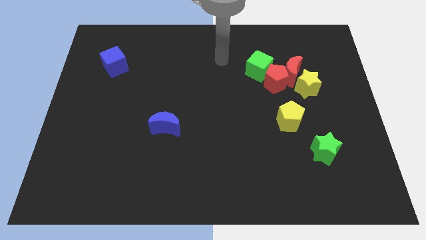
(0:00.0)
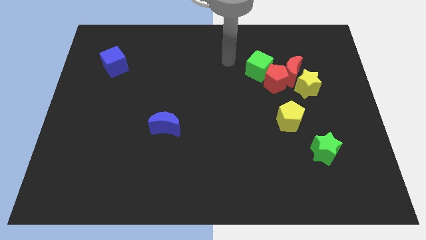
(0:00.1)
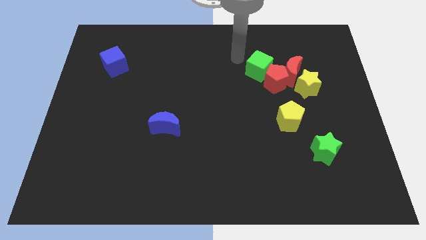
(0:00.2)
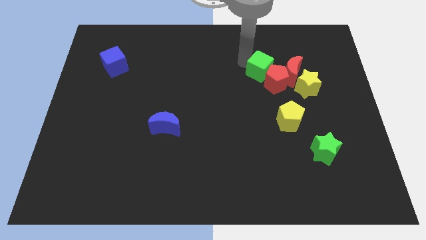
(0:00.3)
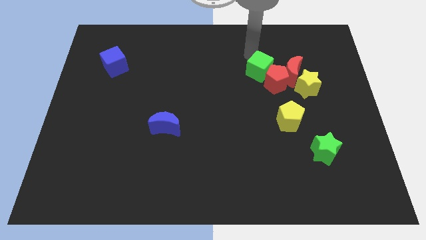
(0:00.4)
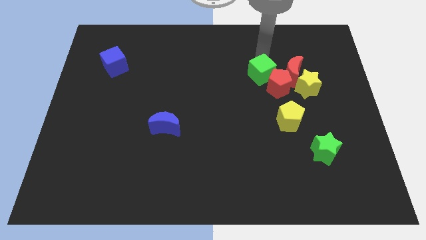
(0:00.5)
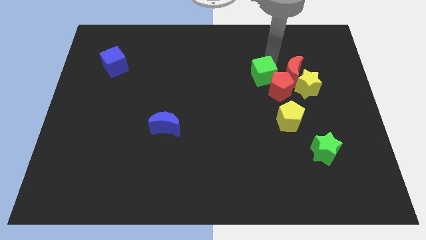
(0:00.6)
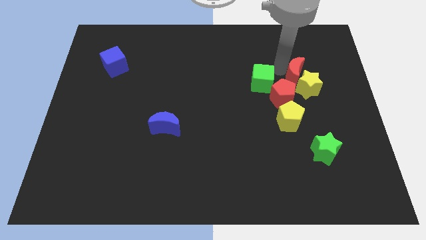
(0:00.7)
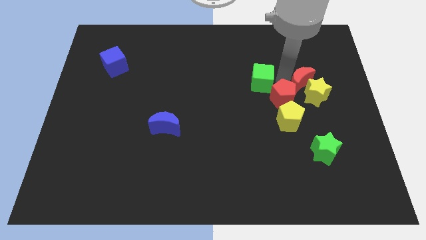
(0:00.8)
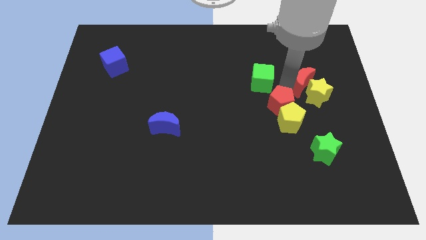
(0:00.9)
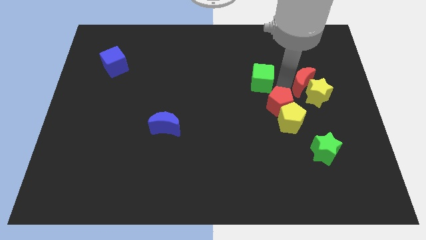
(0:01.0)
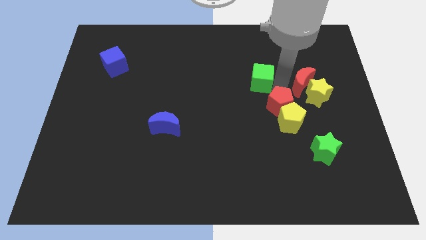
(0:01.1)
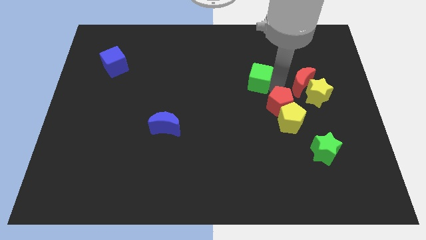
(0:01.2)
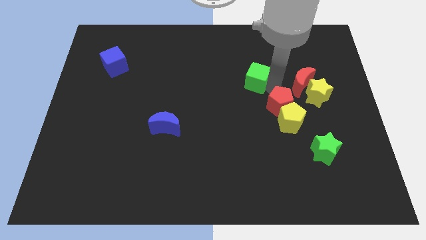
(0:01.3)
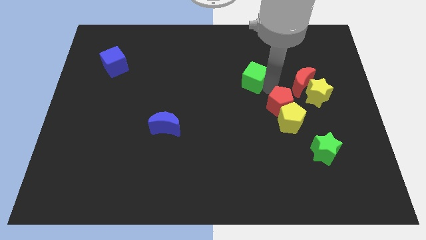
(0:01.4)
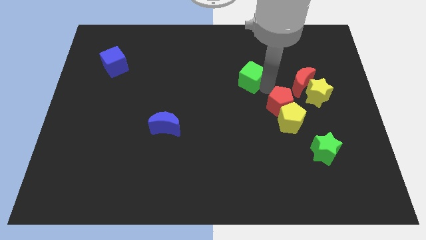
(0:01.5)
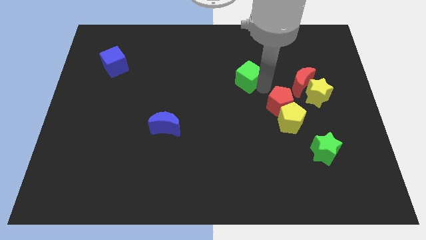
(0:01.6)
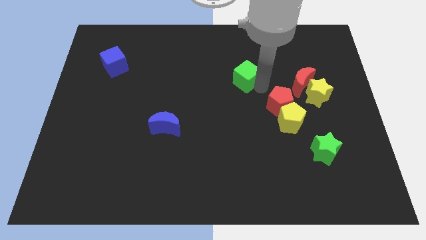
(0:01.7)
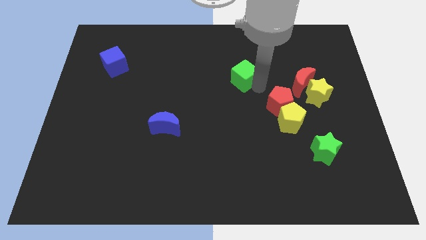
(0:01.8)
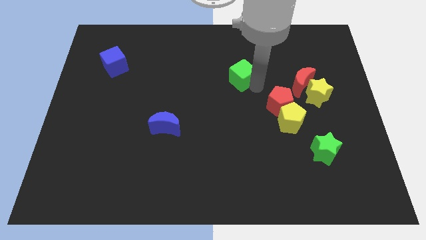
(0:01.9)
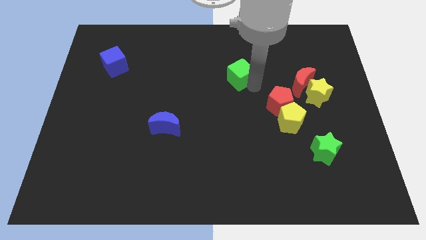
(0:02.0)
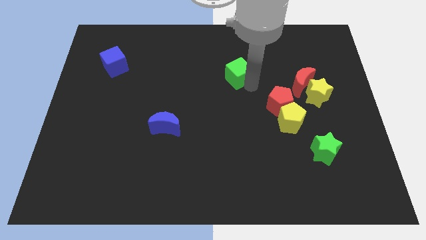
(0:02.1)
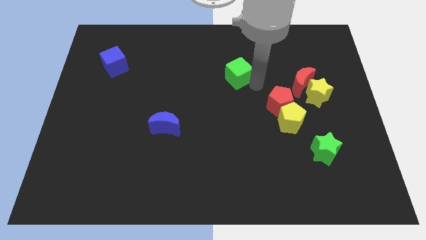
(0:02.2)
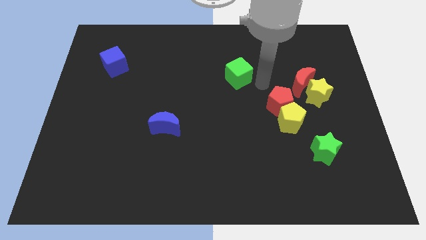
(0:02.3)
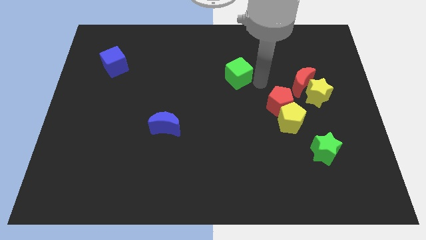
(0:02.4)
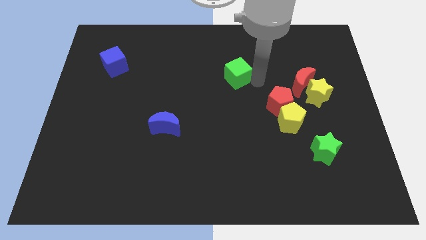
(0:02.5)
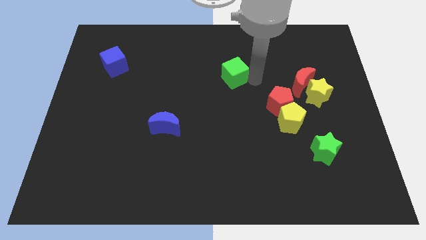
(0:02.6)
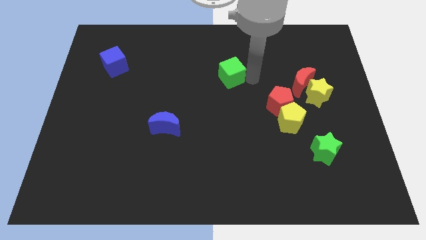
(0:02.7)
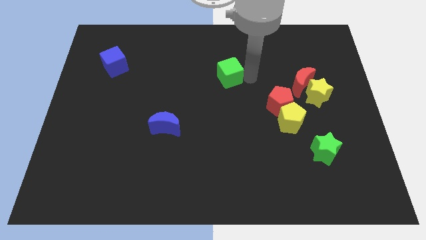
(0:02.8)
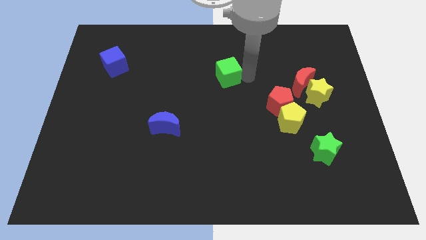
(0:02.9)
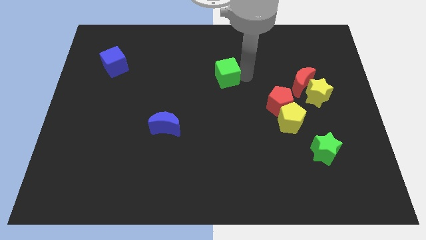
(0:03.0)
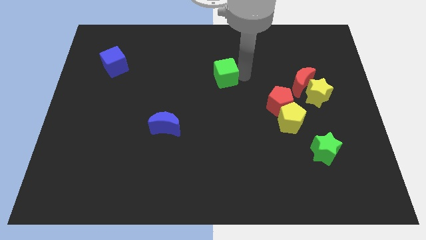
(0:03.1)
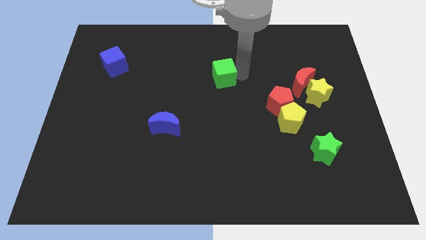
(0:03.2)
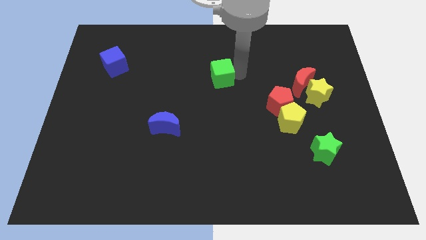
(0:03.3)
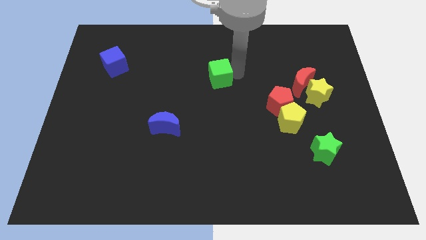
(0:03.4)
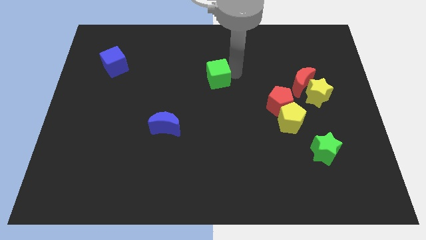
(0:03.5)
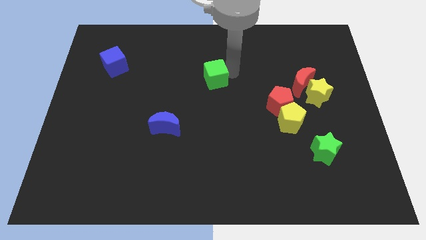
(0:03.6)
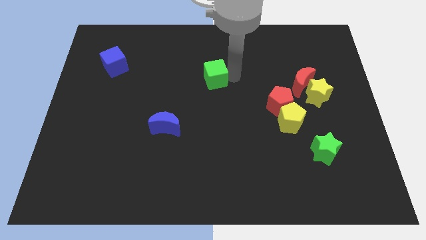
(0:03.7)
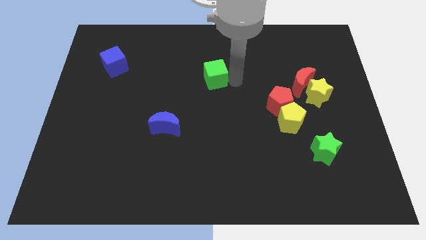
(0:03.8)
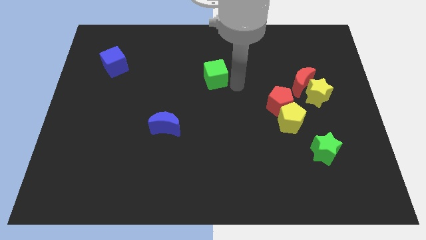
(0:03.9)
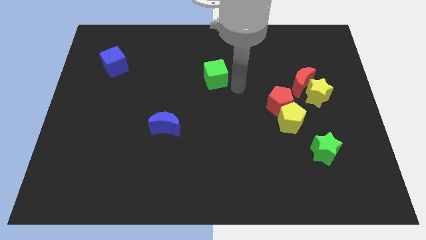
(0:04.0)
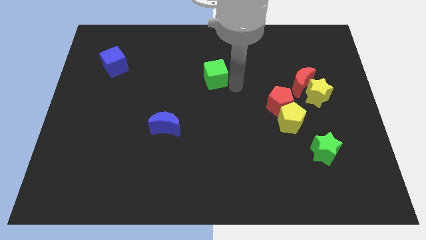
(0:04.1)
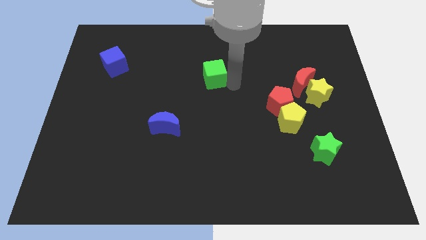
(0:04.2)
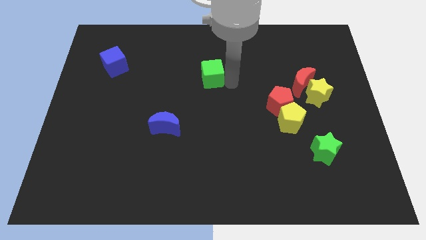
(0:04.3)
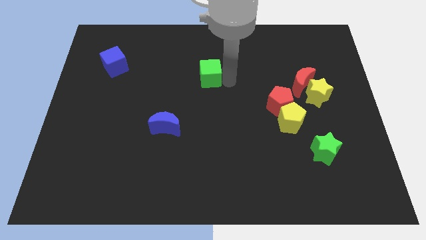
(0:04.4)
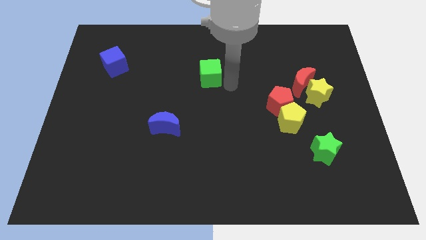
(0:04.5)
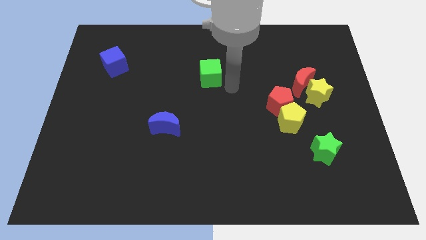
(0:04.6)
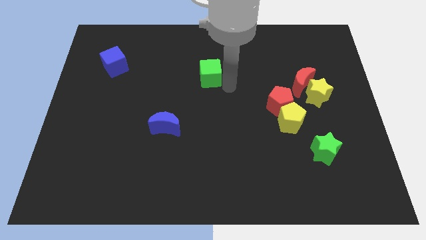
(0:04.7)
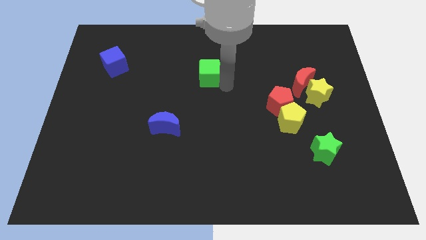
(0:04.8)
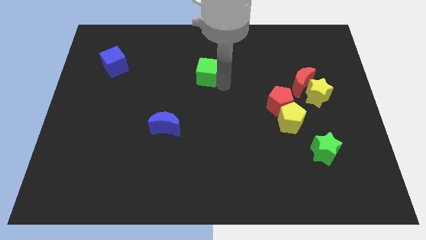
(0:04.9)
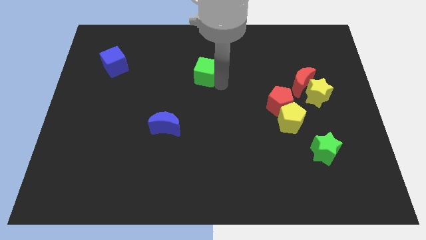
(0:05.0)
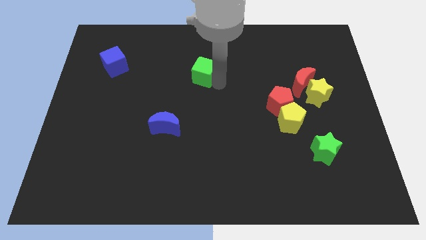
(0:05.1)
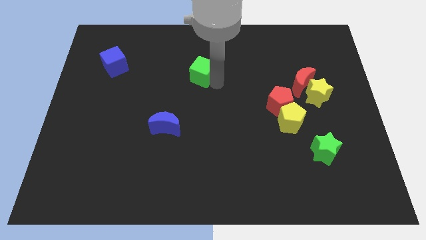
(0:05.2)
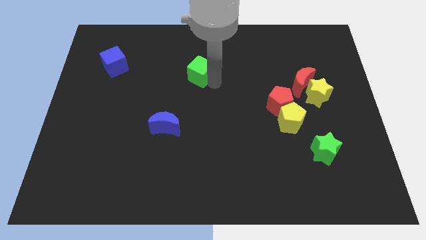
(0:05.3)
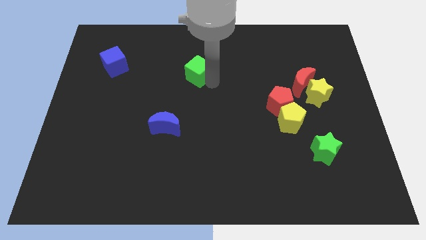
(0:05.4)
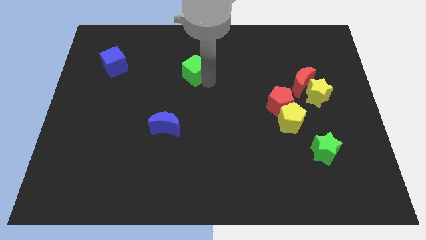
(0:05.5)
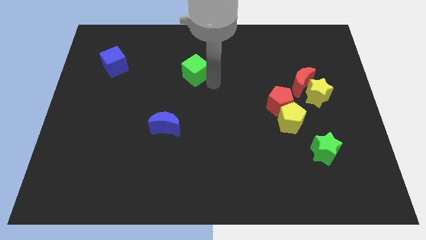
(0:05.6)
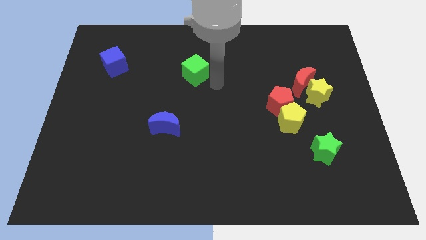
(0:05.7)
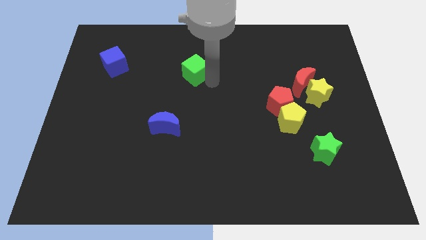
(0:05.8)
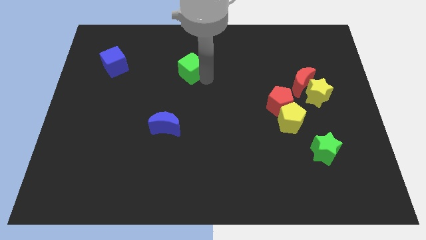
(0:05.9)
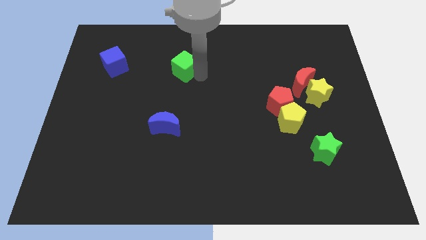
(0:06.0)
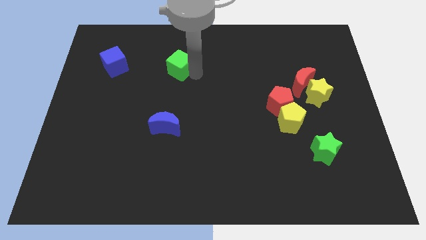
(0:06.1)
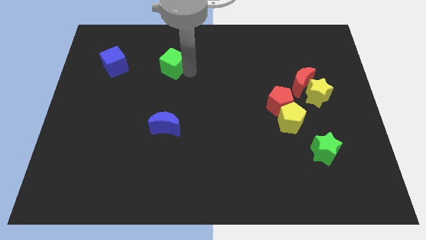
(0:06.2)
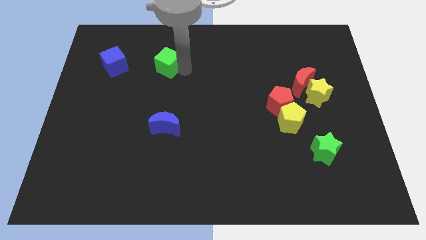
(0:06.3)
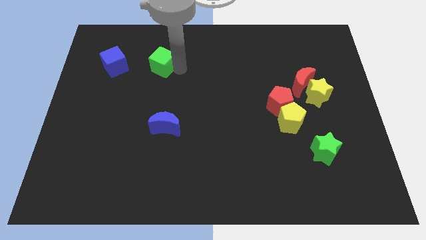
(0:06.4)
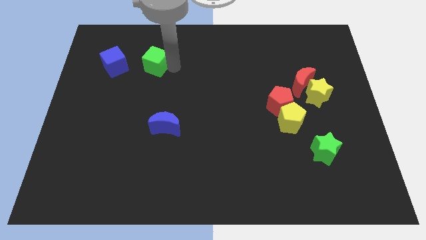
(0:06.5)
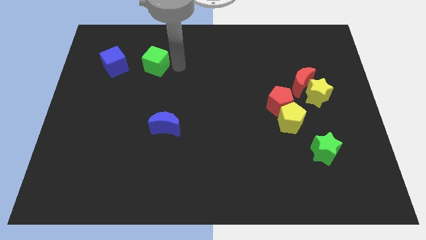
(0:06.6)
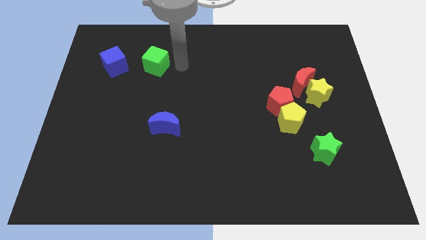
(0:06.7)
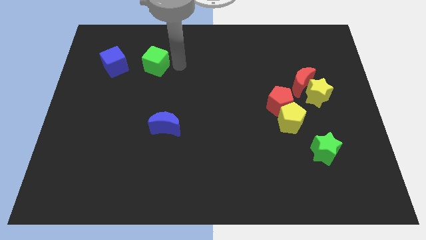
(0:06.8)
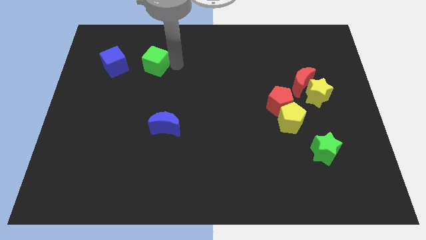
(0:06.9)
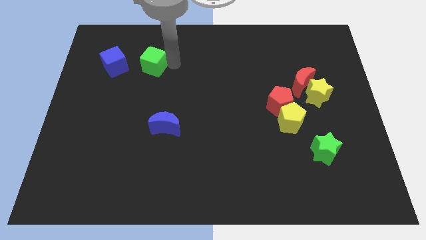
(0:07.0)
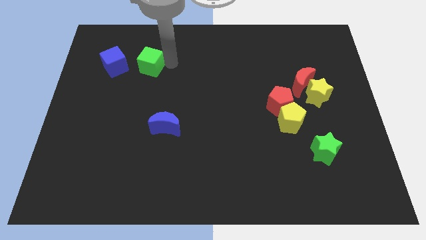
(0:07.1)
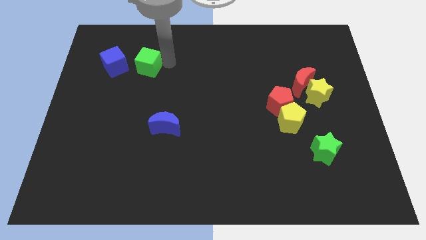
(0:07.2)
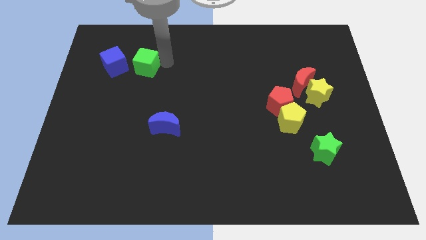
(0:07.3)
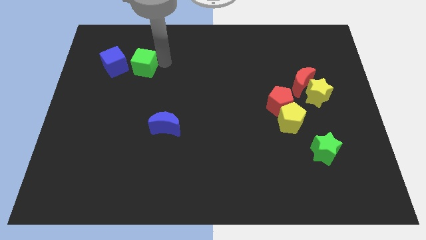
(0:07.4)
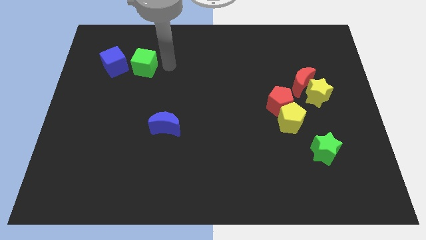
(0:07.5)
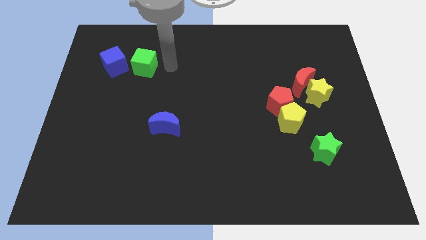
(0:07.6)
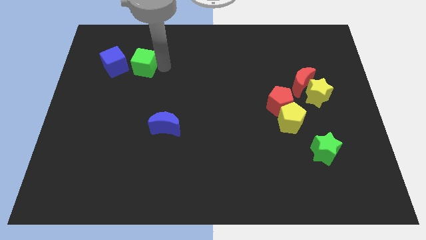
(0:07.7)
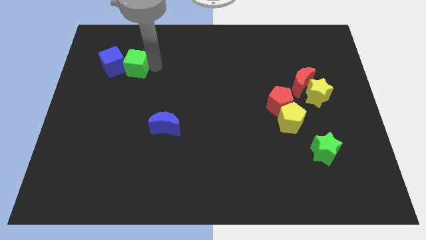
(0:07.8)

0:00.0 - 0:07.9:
move the green cube towards the blue cube

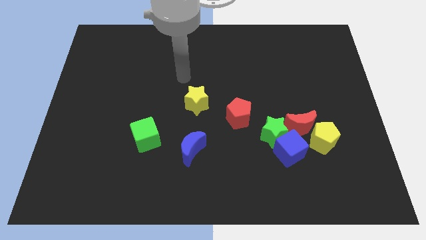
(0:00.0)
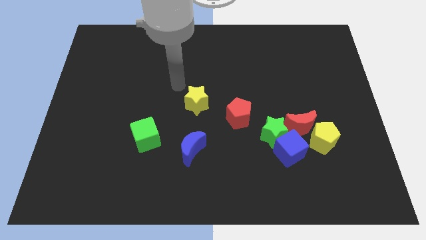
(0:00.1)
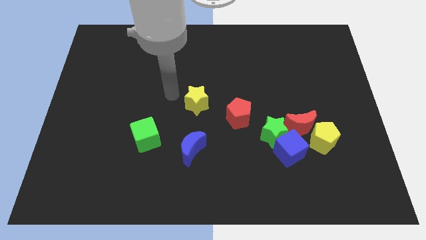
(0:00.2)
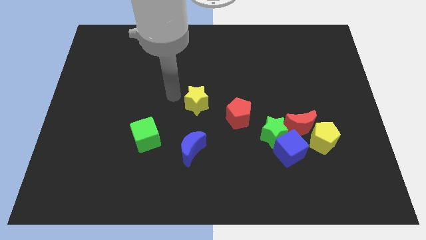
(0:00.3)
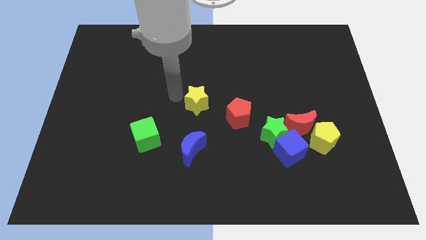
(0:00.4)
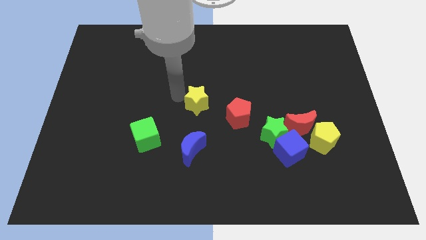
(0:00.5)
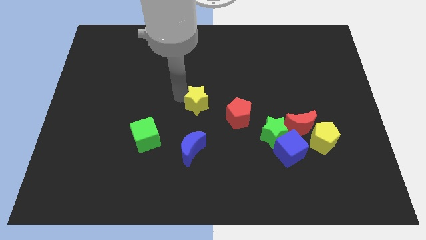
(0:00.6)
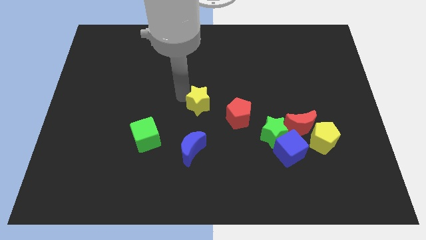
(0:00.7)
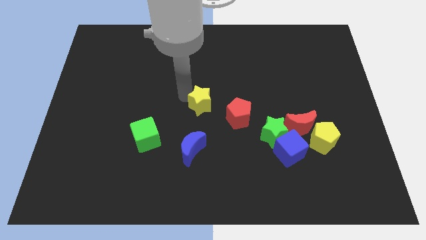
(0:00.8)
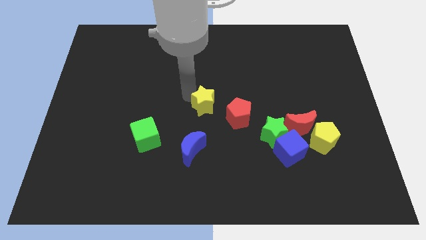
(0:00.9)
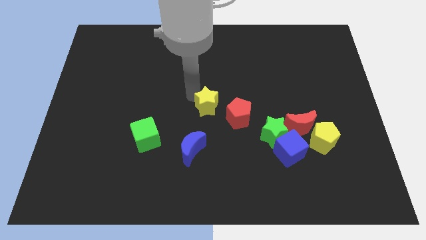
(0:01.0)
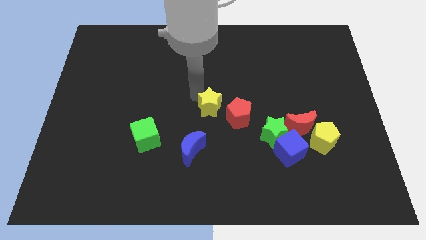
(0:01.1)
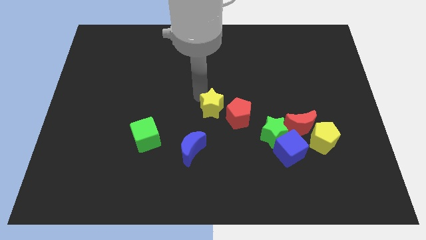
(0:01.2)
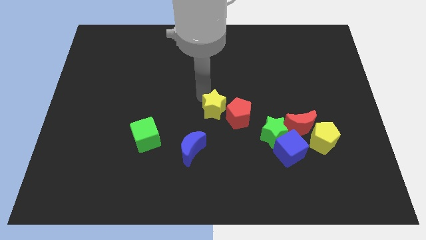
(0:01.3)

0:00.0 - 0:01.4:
push the yellow star to the red pentagon
